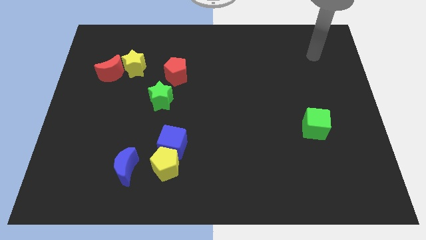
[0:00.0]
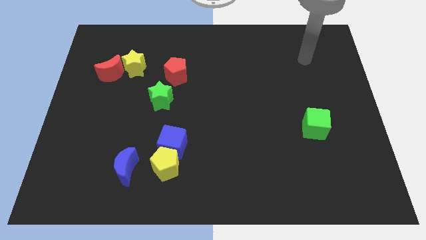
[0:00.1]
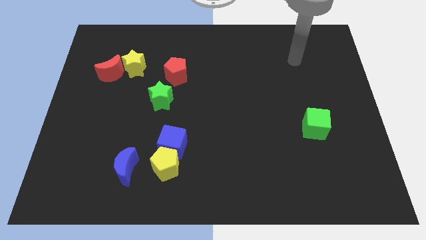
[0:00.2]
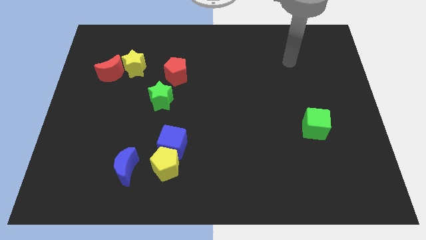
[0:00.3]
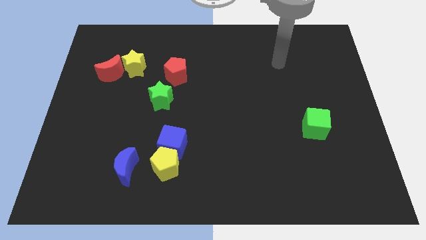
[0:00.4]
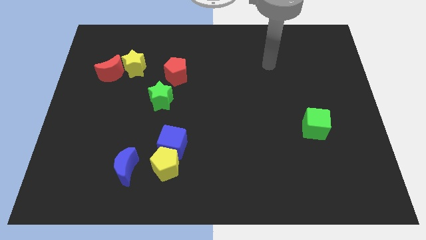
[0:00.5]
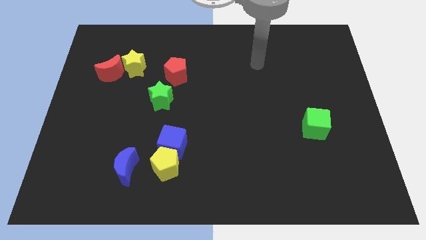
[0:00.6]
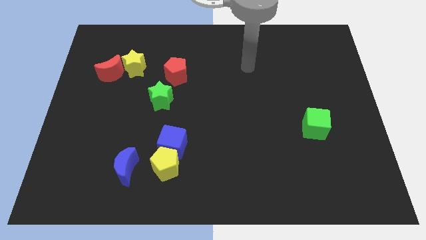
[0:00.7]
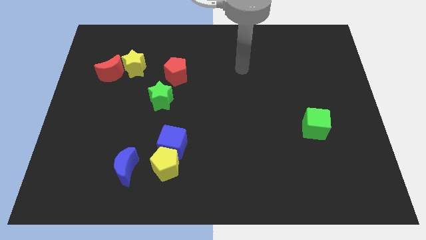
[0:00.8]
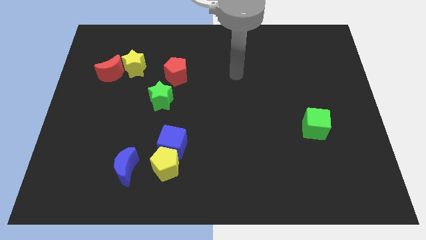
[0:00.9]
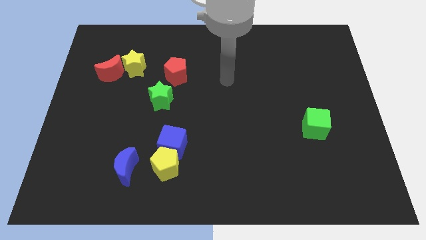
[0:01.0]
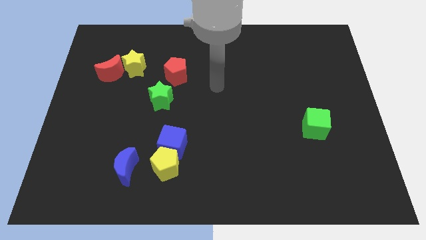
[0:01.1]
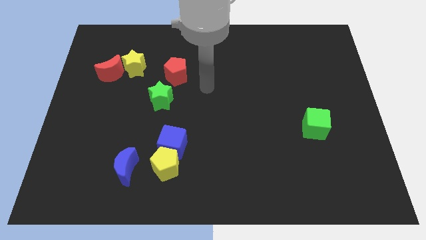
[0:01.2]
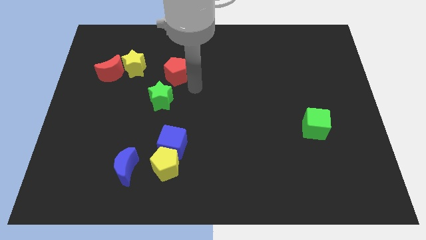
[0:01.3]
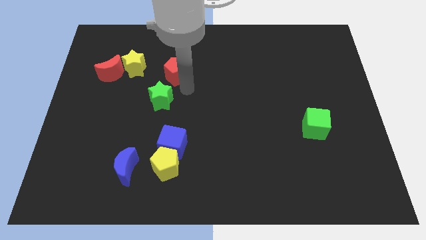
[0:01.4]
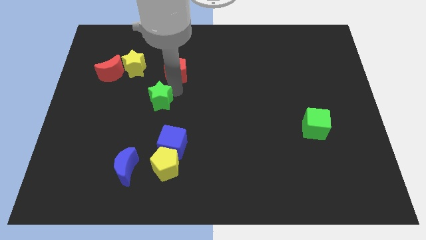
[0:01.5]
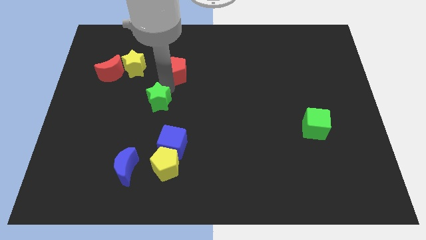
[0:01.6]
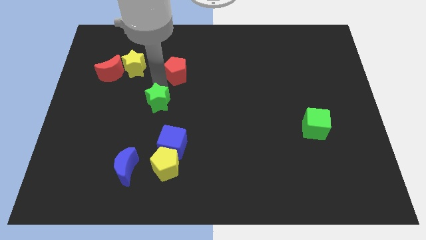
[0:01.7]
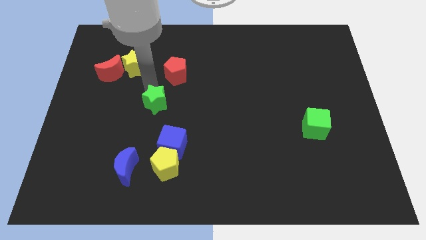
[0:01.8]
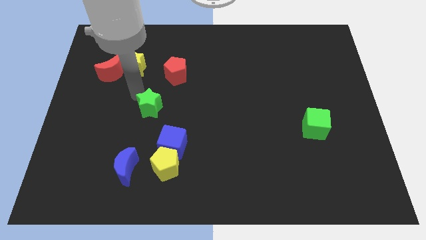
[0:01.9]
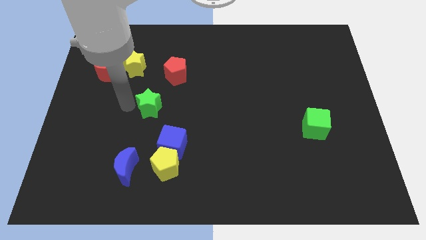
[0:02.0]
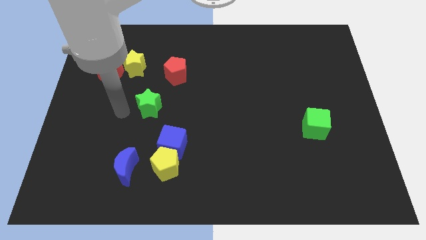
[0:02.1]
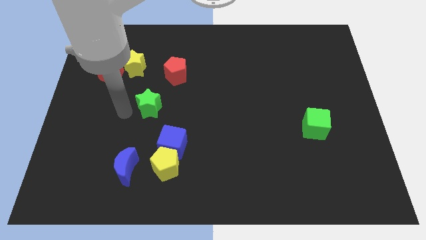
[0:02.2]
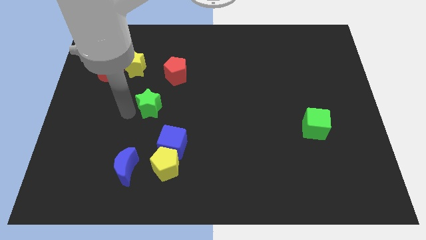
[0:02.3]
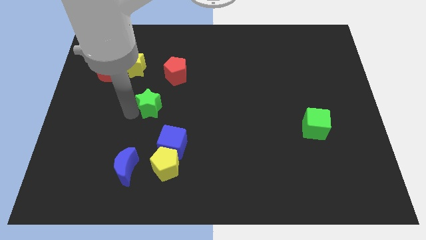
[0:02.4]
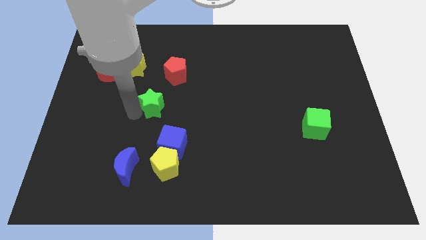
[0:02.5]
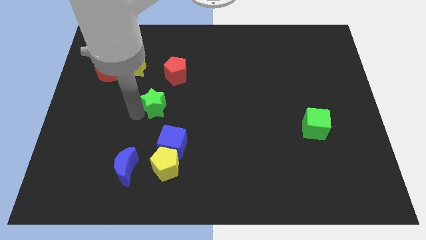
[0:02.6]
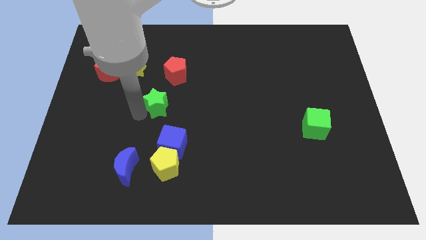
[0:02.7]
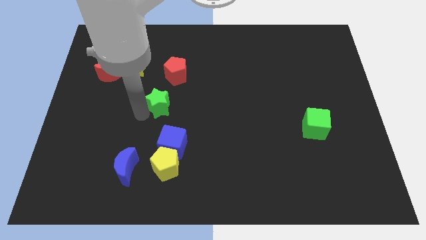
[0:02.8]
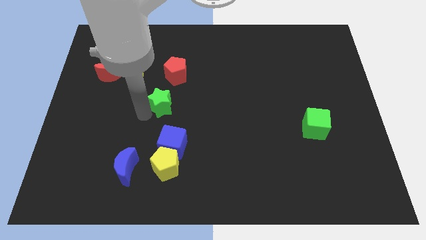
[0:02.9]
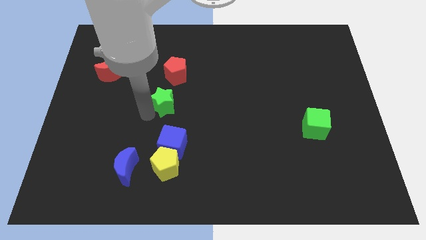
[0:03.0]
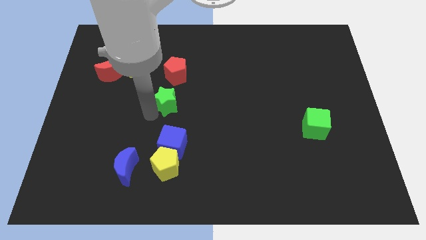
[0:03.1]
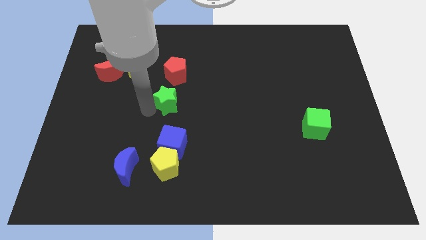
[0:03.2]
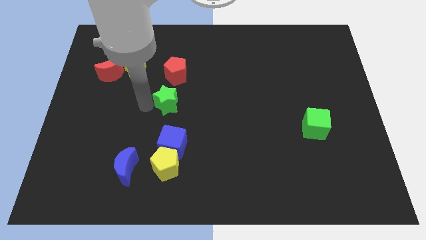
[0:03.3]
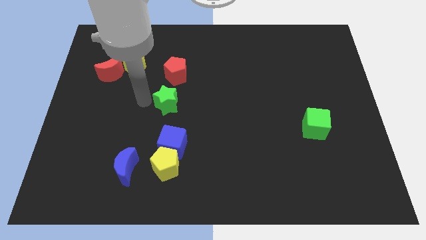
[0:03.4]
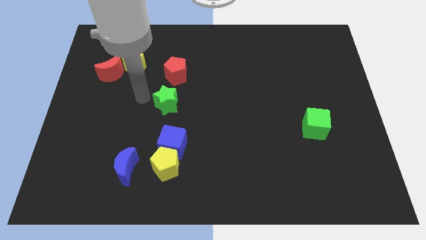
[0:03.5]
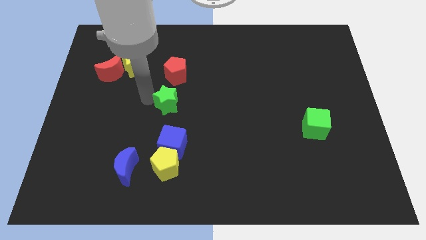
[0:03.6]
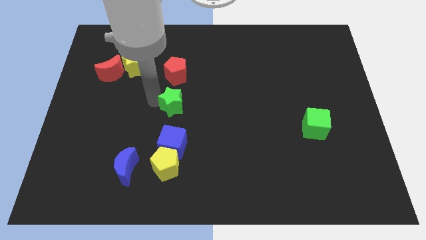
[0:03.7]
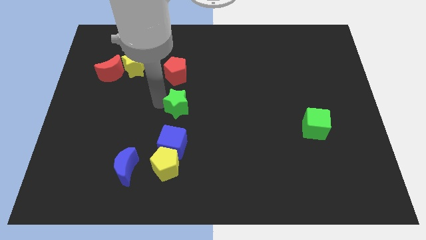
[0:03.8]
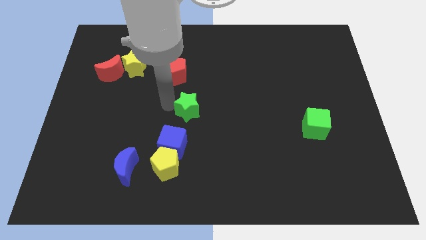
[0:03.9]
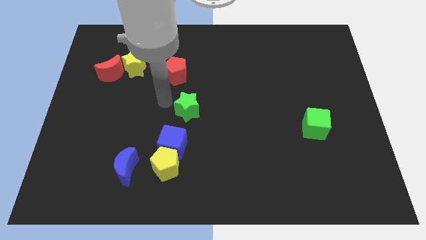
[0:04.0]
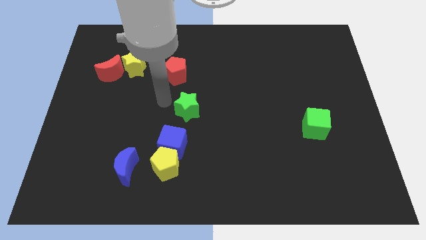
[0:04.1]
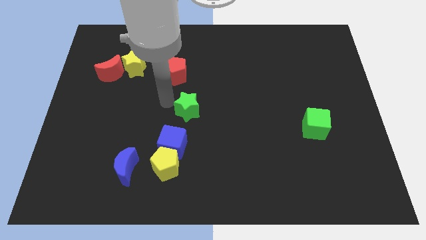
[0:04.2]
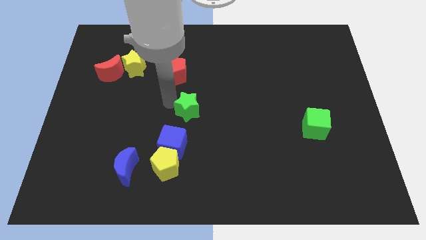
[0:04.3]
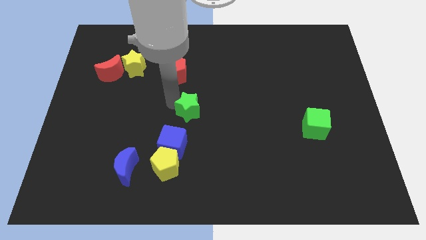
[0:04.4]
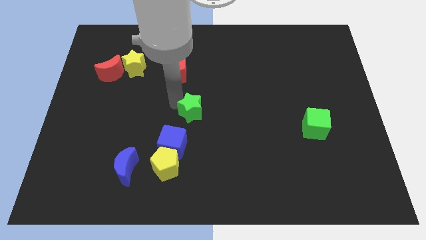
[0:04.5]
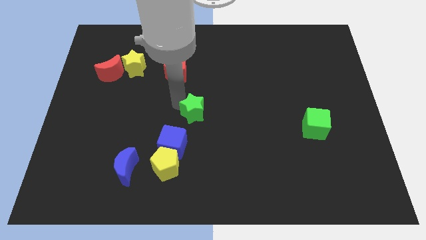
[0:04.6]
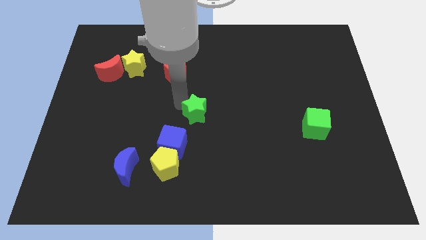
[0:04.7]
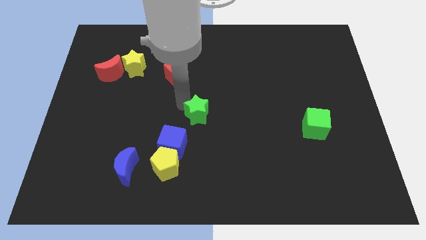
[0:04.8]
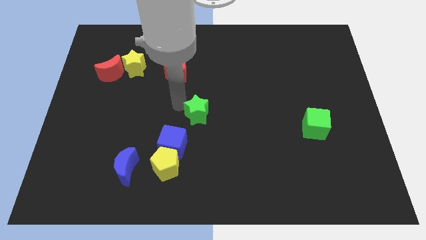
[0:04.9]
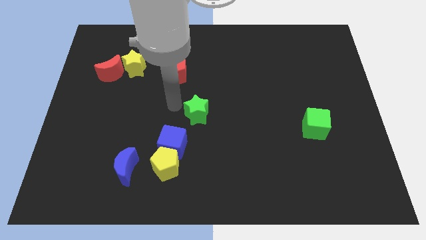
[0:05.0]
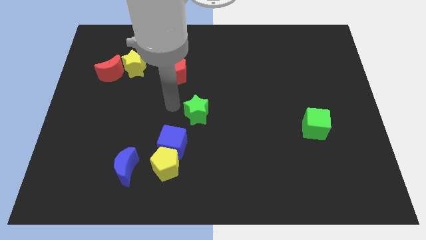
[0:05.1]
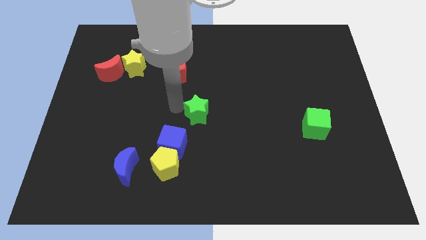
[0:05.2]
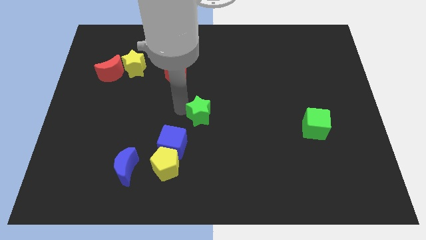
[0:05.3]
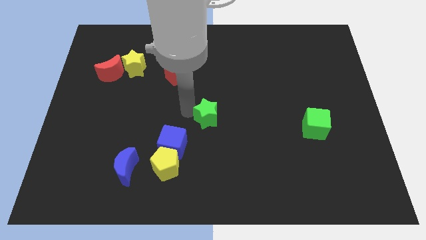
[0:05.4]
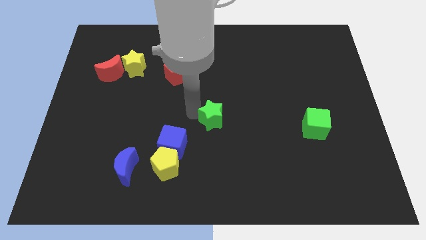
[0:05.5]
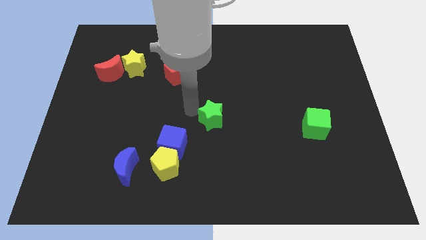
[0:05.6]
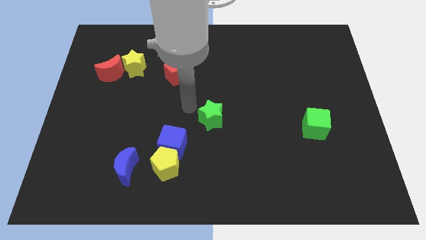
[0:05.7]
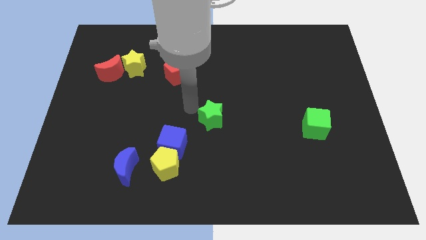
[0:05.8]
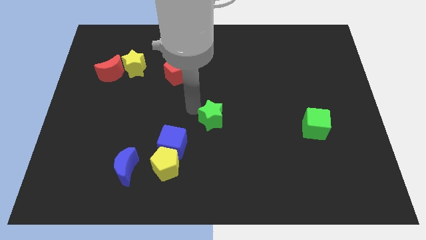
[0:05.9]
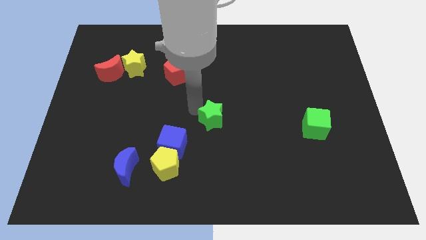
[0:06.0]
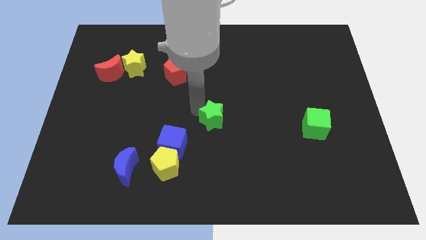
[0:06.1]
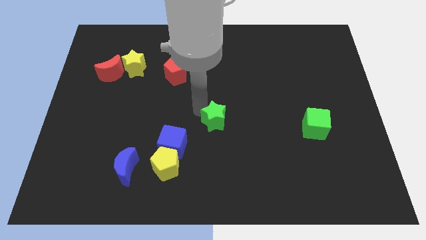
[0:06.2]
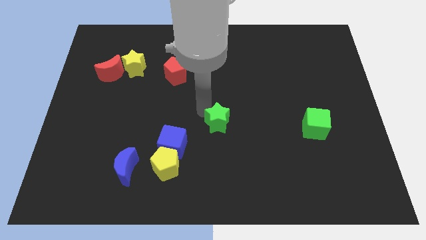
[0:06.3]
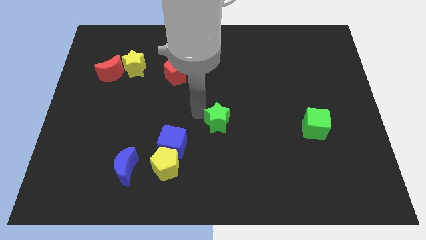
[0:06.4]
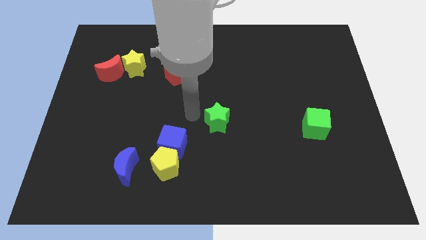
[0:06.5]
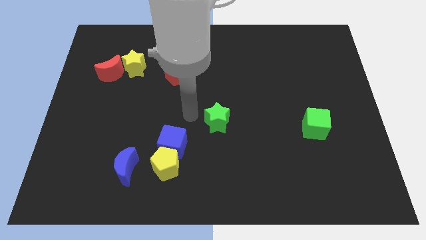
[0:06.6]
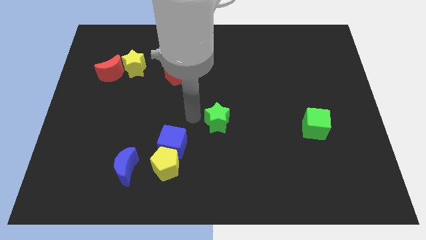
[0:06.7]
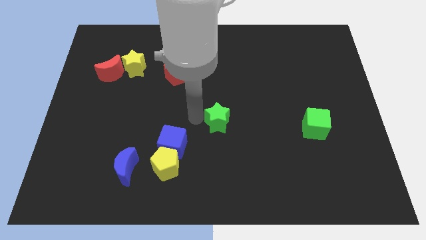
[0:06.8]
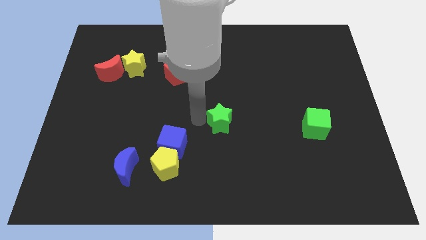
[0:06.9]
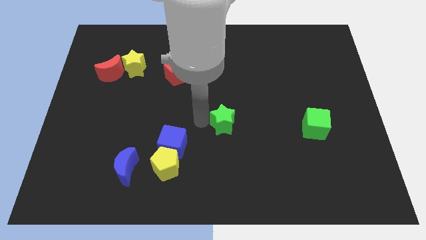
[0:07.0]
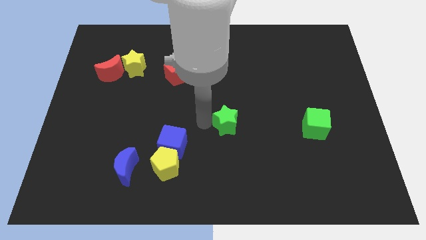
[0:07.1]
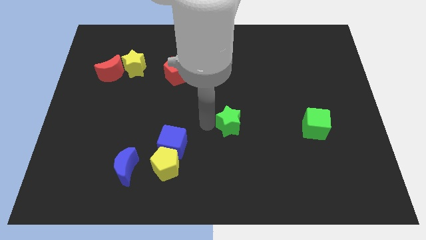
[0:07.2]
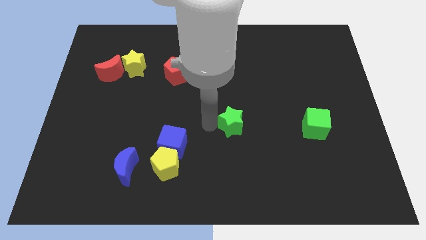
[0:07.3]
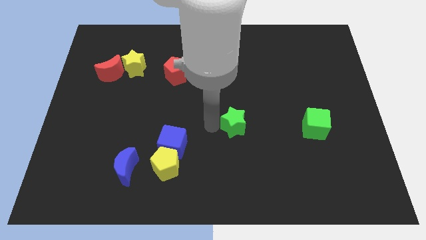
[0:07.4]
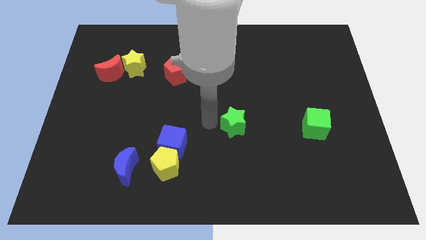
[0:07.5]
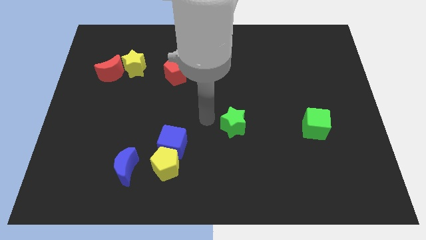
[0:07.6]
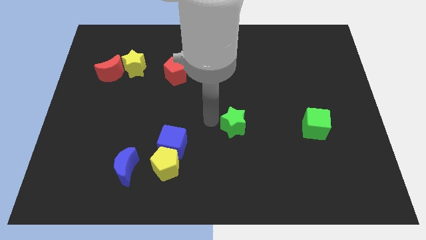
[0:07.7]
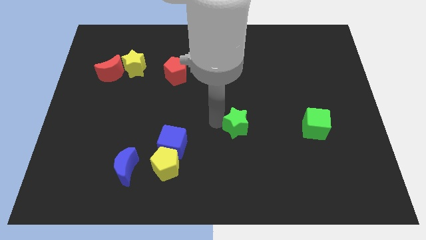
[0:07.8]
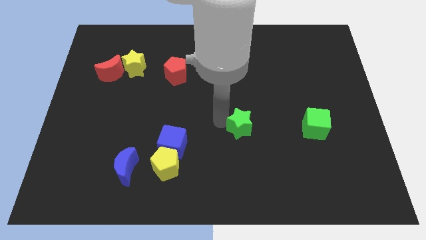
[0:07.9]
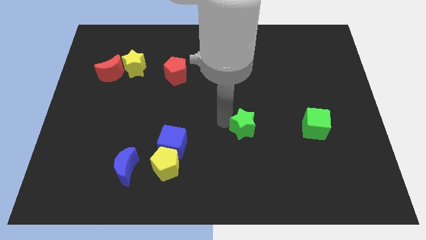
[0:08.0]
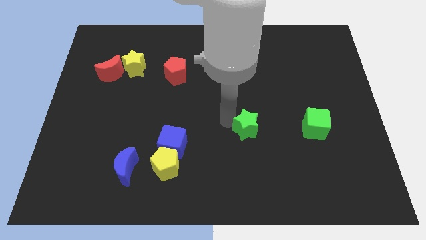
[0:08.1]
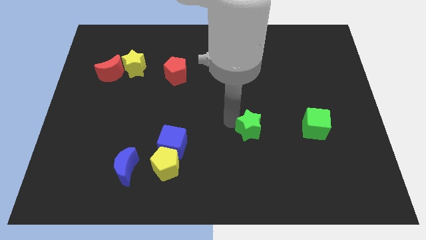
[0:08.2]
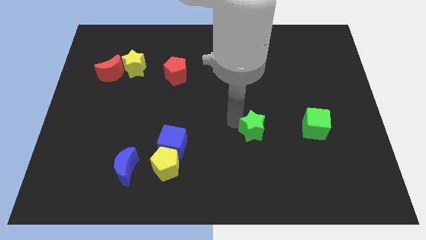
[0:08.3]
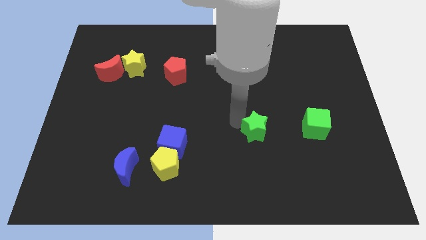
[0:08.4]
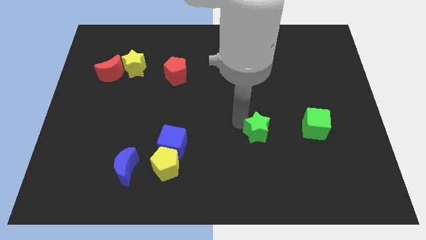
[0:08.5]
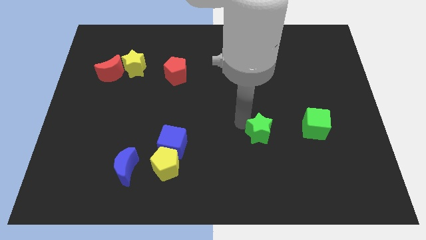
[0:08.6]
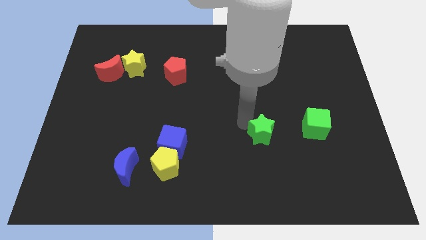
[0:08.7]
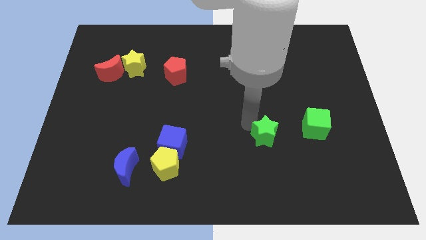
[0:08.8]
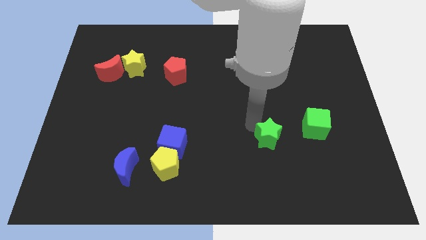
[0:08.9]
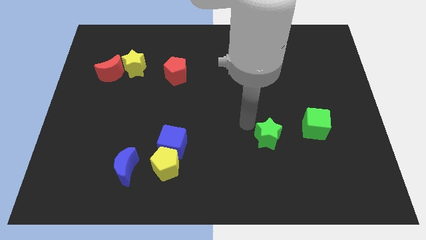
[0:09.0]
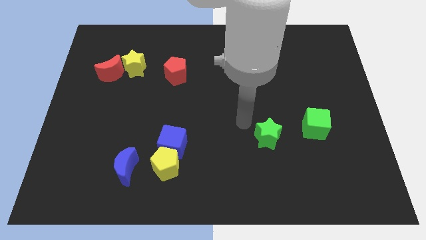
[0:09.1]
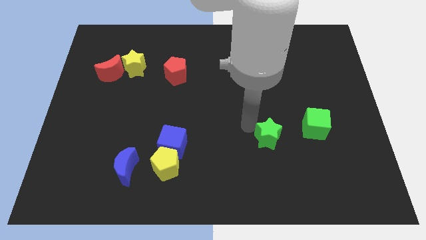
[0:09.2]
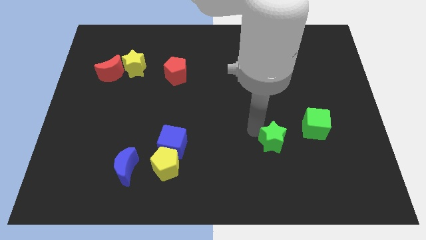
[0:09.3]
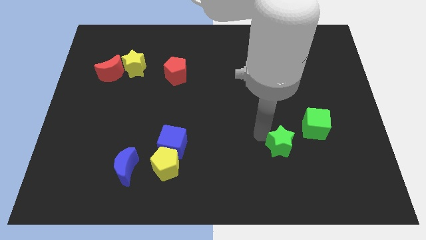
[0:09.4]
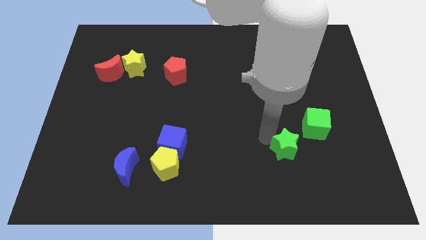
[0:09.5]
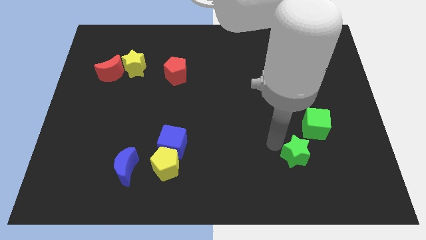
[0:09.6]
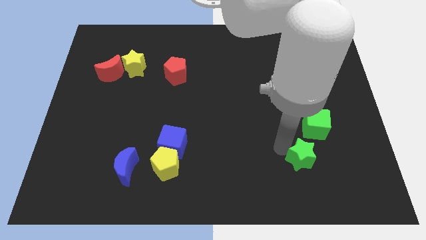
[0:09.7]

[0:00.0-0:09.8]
slide the green star to the bottom side of the green cube
